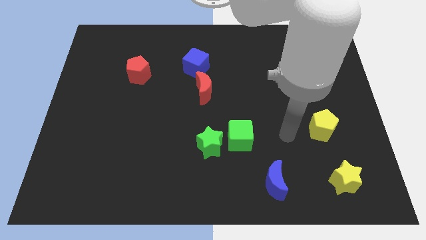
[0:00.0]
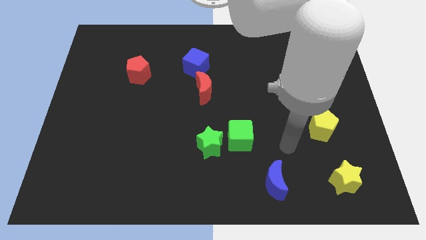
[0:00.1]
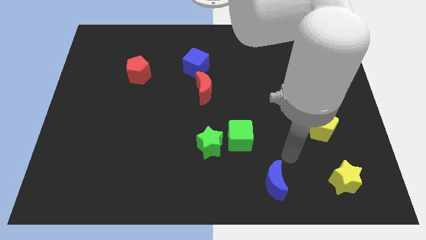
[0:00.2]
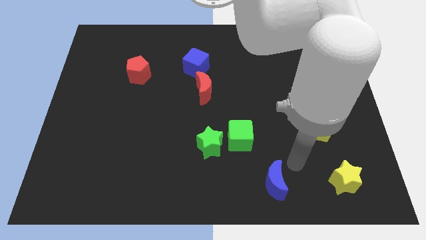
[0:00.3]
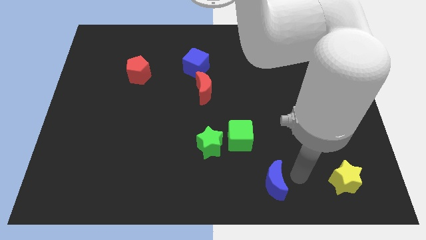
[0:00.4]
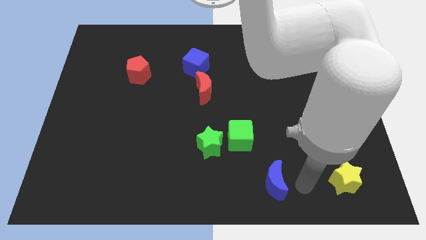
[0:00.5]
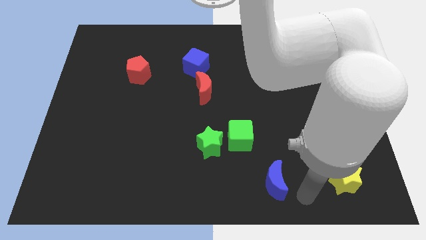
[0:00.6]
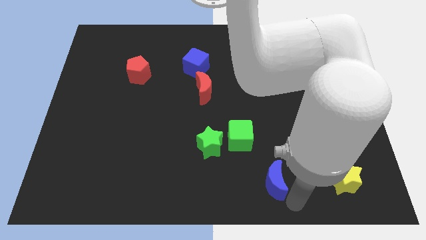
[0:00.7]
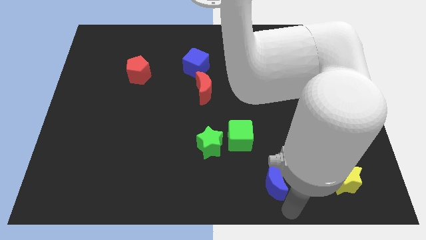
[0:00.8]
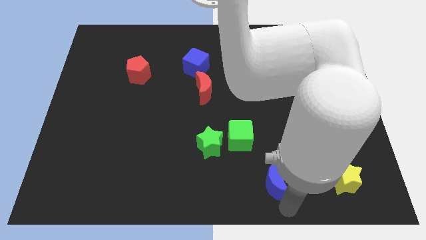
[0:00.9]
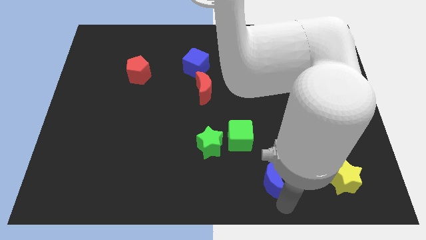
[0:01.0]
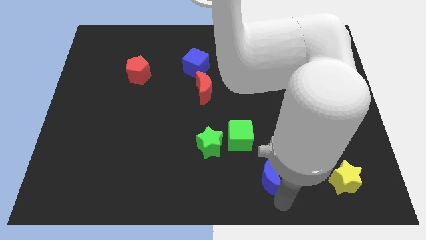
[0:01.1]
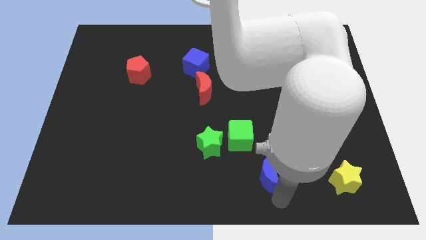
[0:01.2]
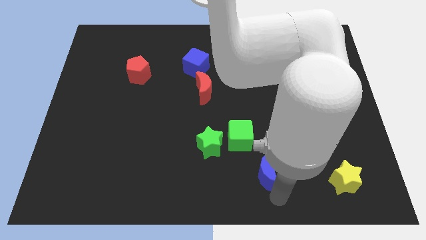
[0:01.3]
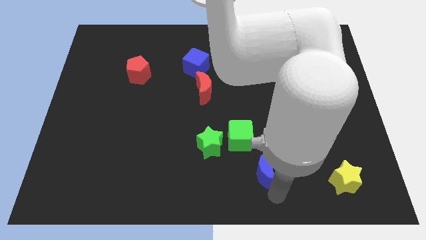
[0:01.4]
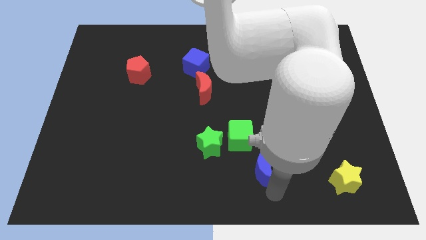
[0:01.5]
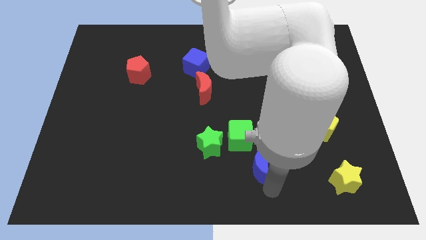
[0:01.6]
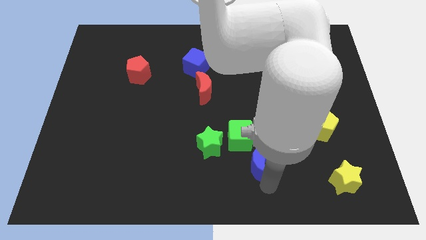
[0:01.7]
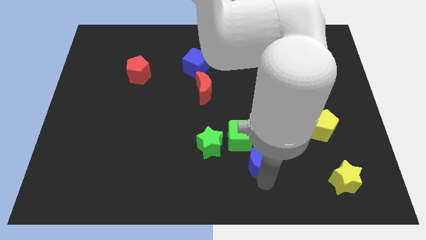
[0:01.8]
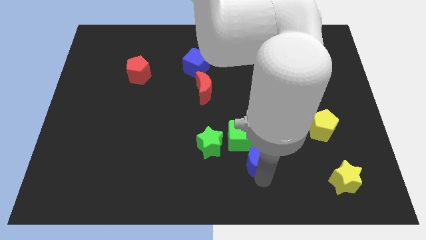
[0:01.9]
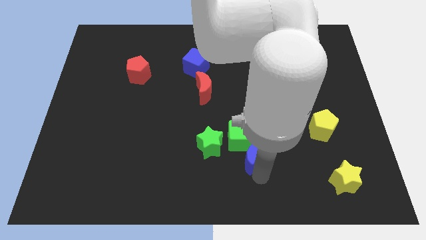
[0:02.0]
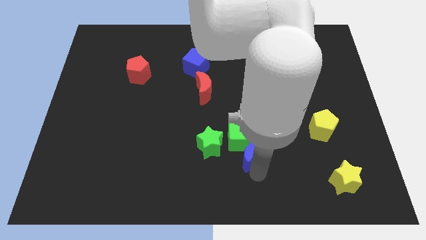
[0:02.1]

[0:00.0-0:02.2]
slide the blue moon upwards and then to the left a little bit

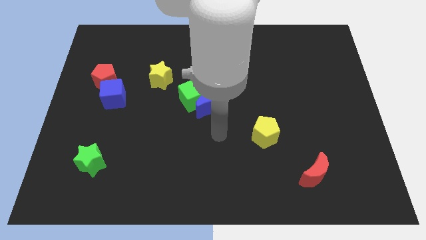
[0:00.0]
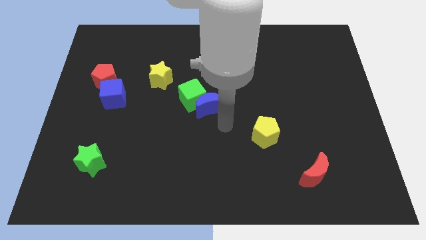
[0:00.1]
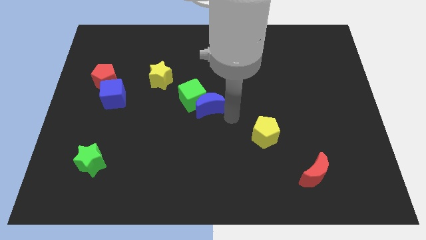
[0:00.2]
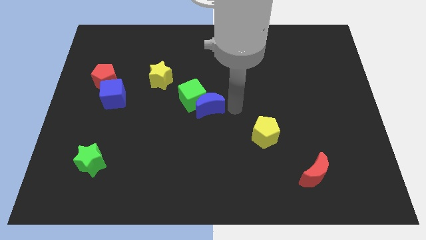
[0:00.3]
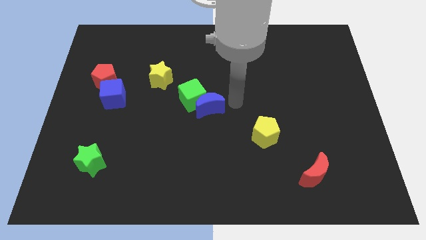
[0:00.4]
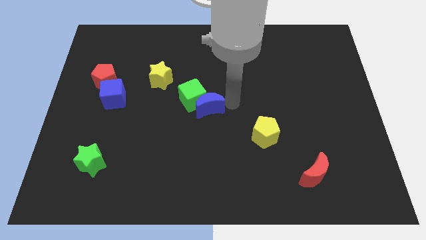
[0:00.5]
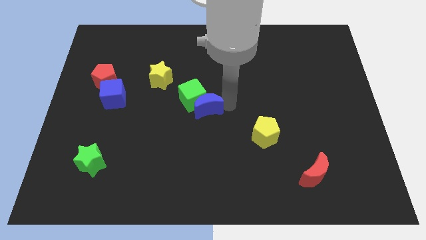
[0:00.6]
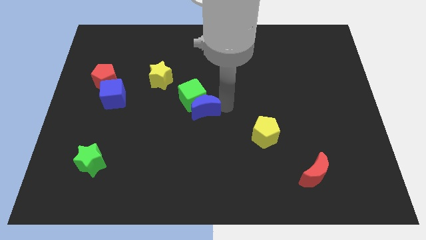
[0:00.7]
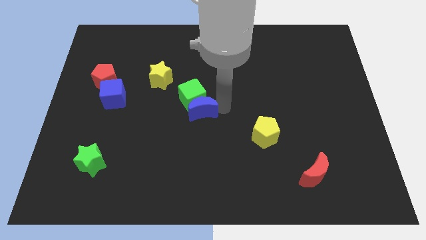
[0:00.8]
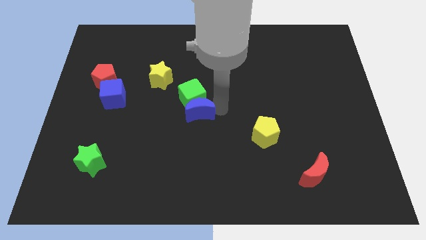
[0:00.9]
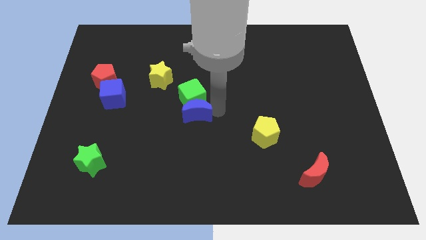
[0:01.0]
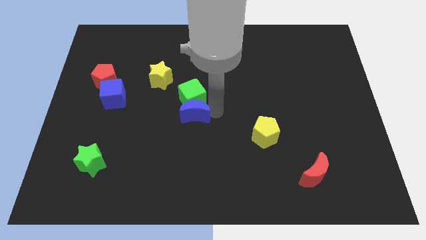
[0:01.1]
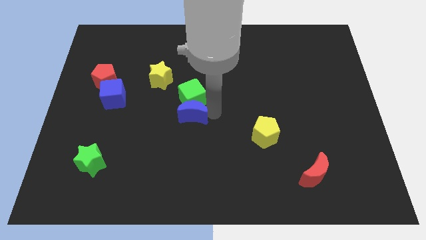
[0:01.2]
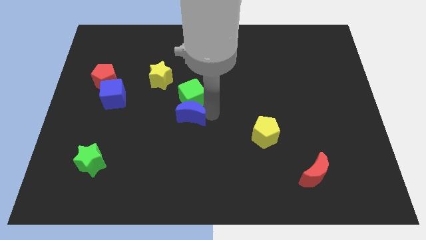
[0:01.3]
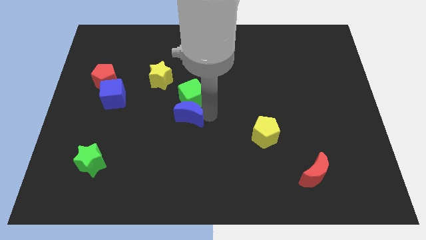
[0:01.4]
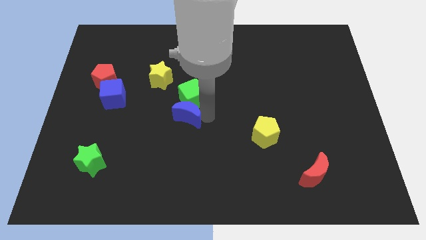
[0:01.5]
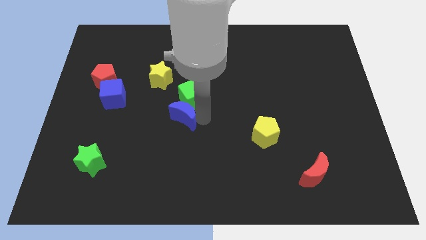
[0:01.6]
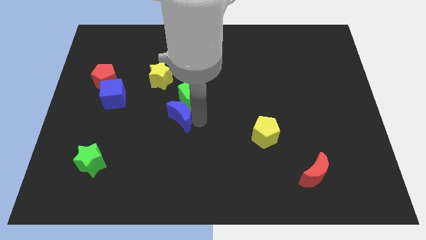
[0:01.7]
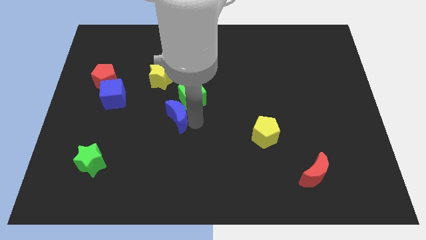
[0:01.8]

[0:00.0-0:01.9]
push the blue moon to the left slightly

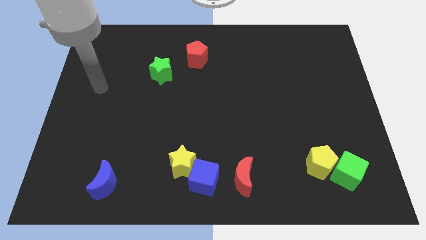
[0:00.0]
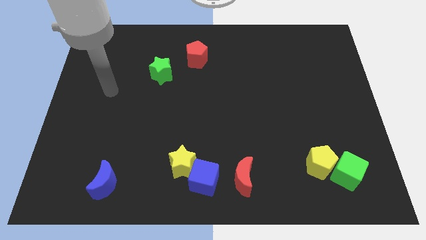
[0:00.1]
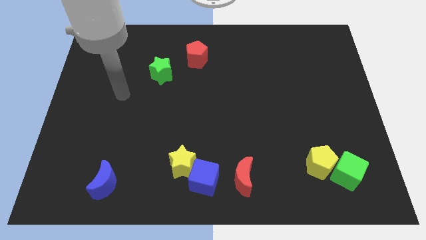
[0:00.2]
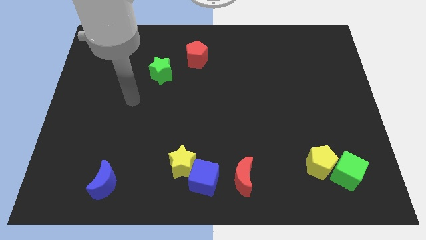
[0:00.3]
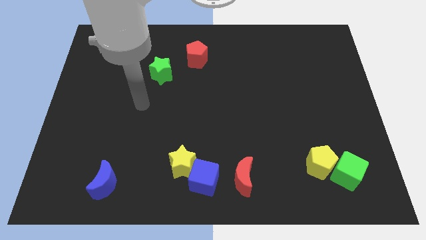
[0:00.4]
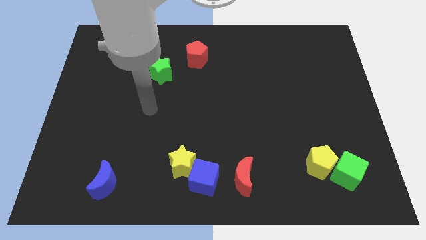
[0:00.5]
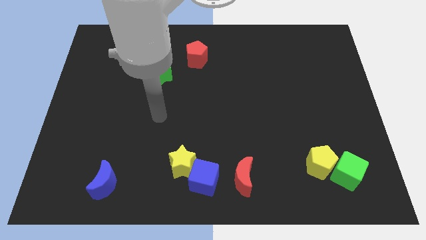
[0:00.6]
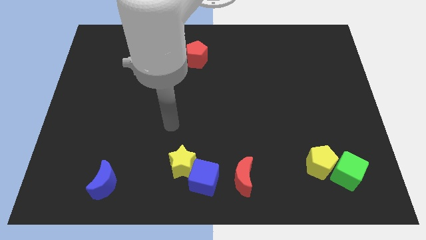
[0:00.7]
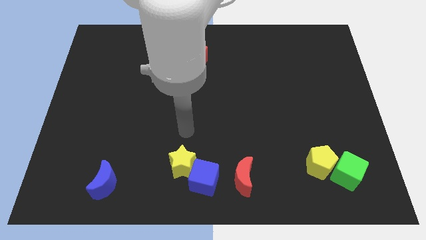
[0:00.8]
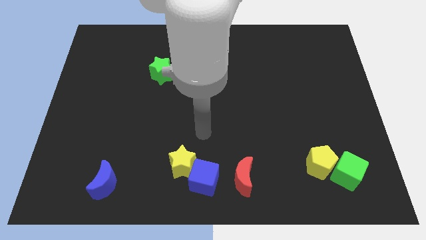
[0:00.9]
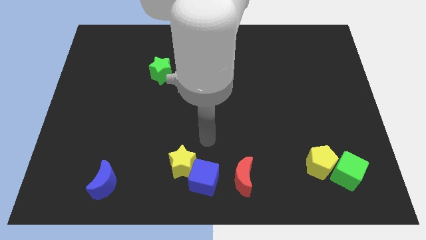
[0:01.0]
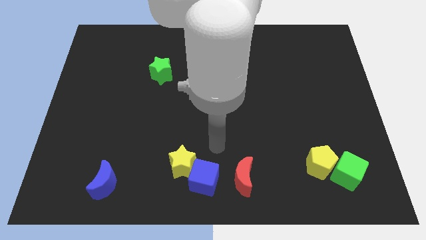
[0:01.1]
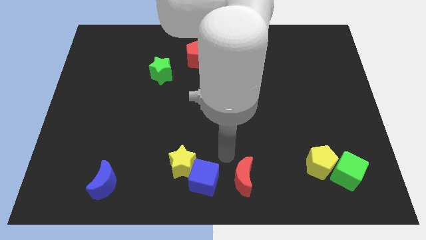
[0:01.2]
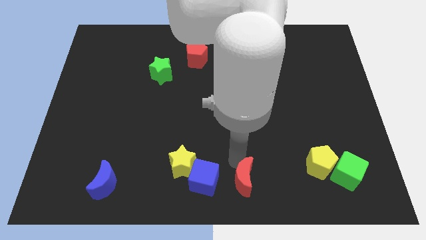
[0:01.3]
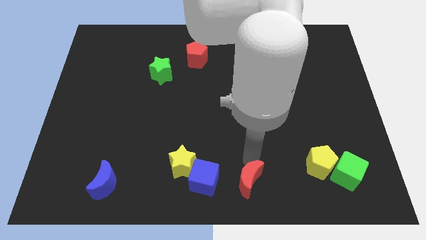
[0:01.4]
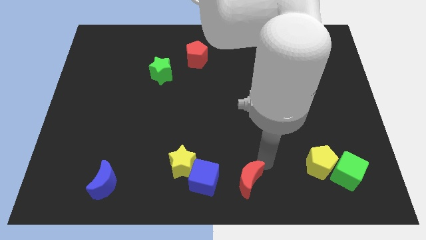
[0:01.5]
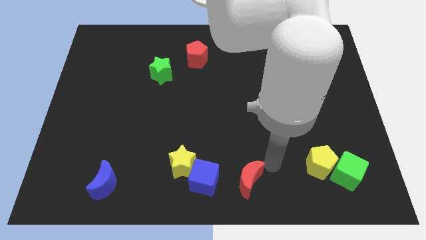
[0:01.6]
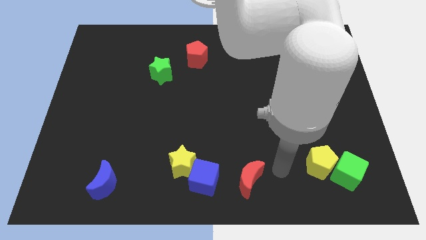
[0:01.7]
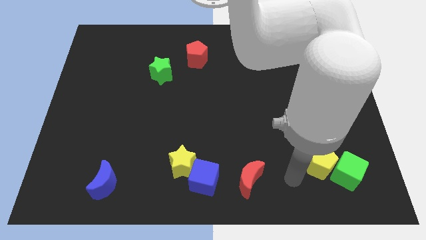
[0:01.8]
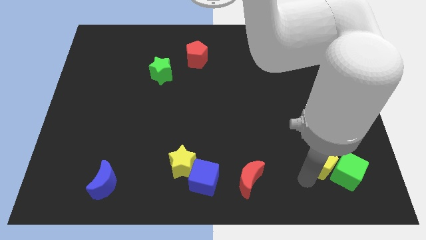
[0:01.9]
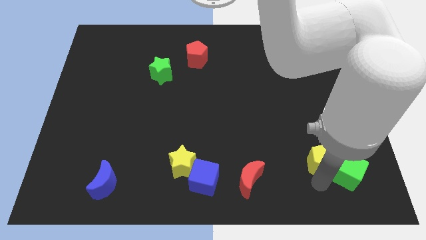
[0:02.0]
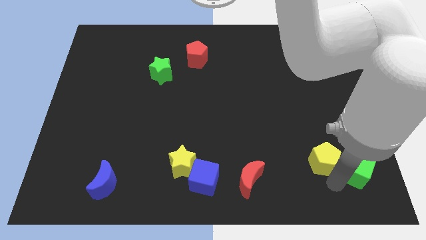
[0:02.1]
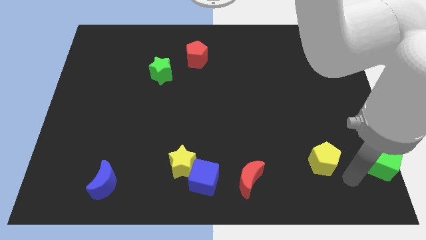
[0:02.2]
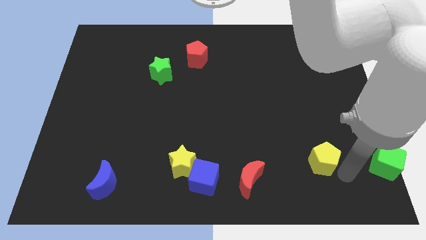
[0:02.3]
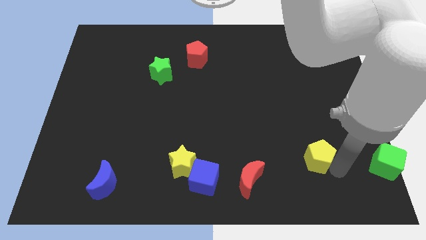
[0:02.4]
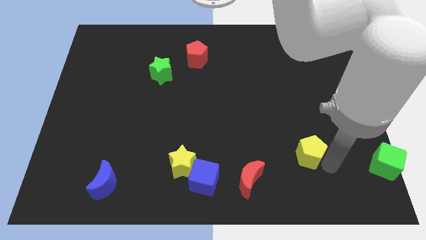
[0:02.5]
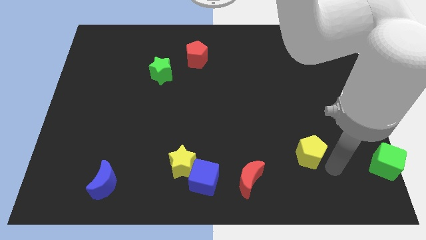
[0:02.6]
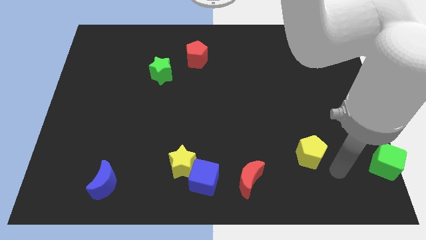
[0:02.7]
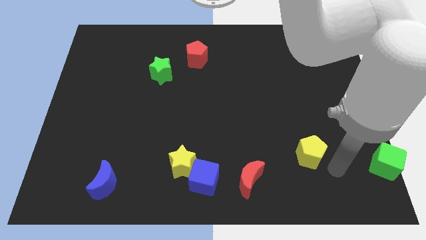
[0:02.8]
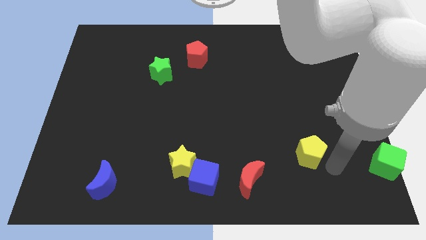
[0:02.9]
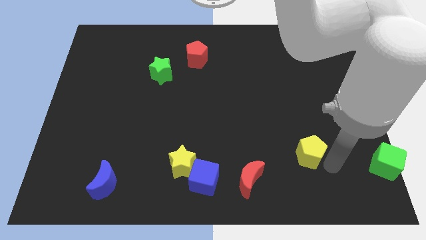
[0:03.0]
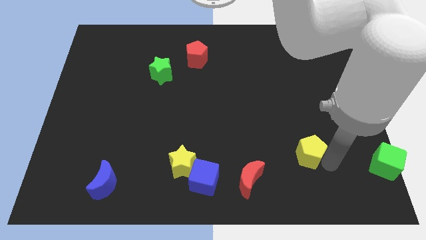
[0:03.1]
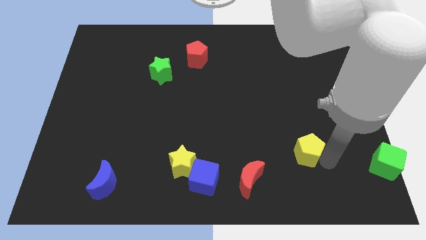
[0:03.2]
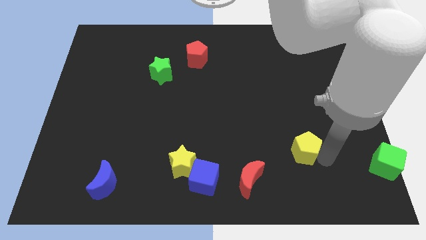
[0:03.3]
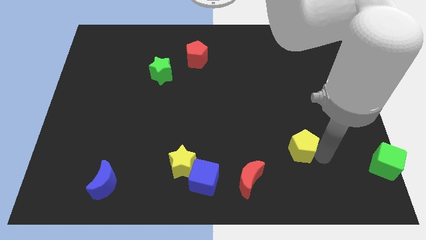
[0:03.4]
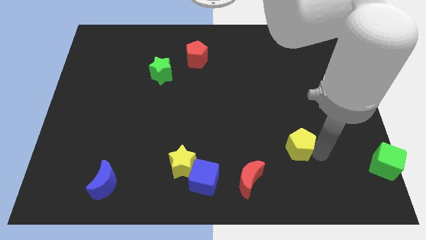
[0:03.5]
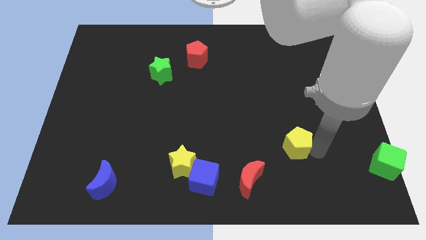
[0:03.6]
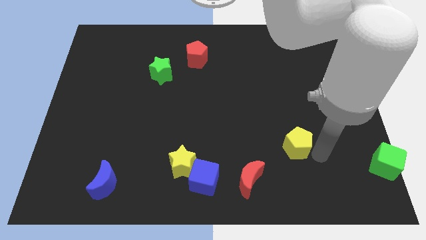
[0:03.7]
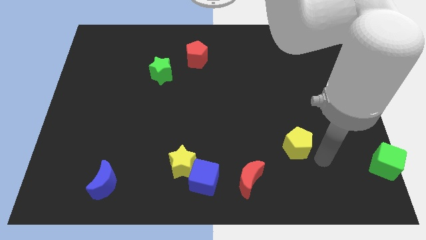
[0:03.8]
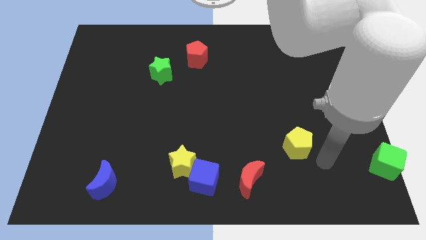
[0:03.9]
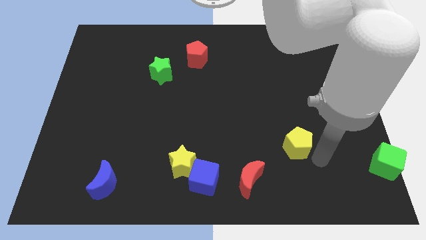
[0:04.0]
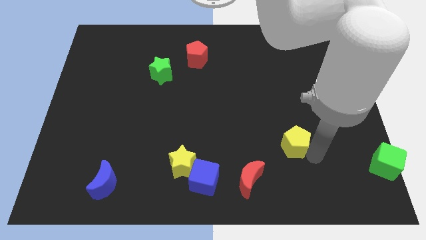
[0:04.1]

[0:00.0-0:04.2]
slightly slide the yellow pentagon diagonally upwards and to the left
